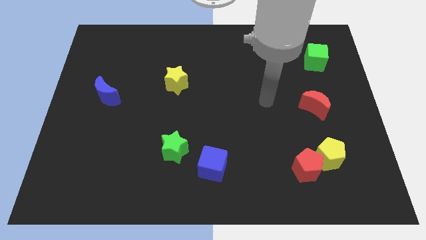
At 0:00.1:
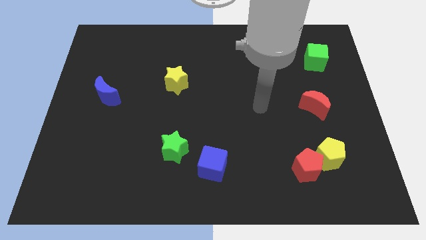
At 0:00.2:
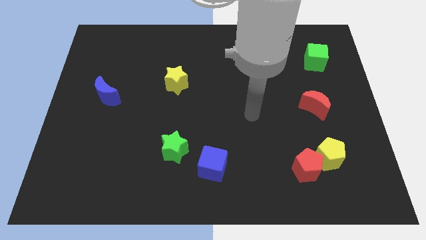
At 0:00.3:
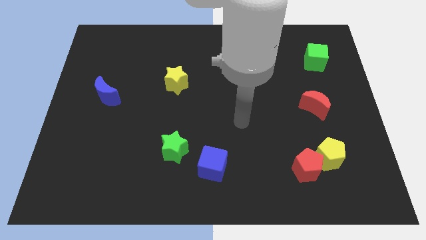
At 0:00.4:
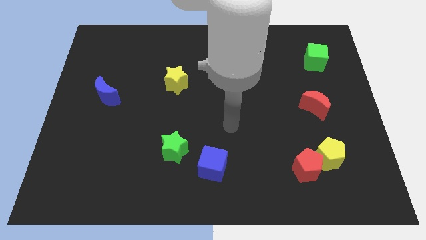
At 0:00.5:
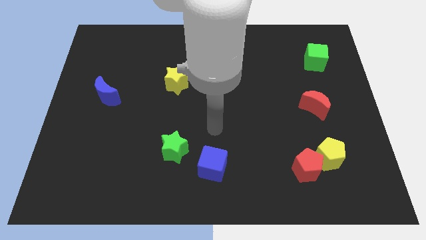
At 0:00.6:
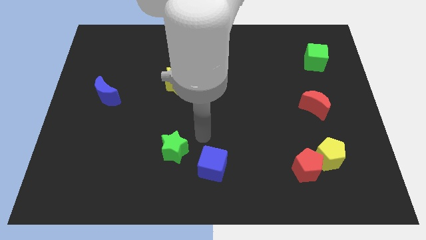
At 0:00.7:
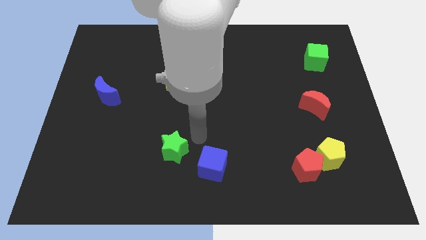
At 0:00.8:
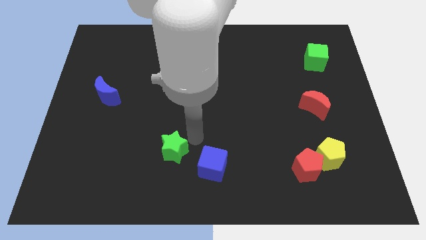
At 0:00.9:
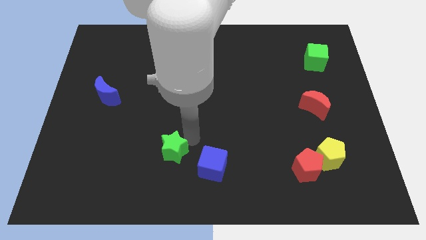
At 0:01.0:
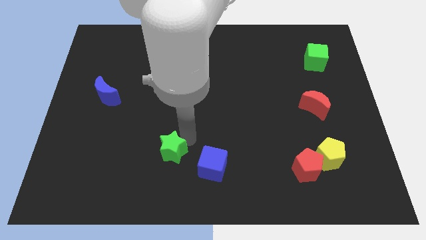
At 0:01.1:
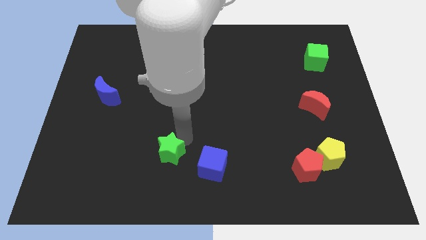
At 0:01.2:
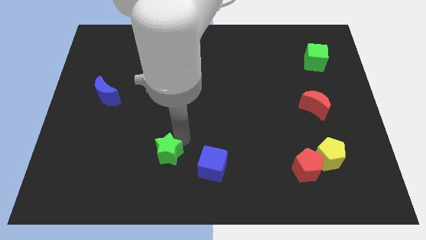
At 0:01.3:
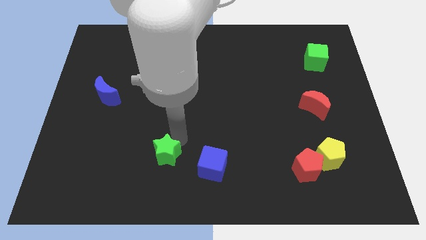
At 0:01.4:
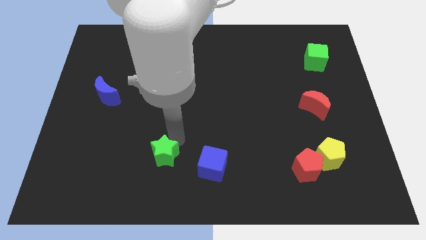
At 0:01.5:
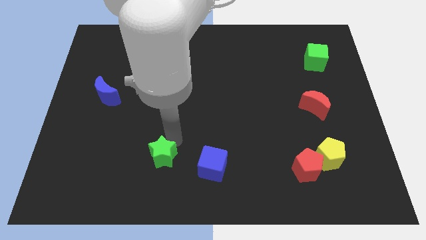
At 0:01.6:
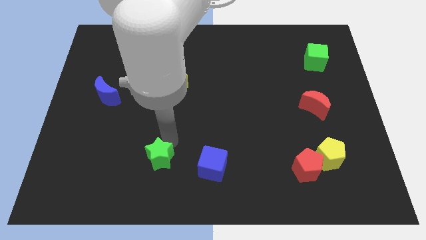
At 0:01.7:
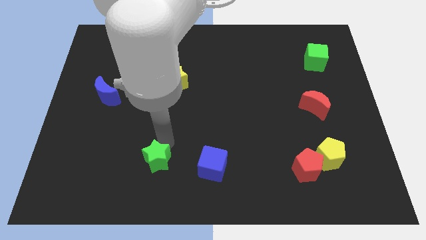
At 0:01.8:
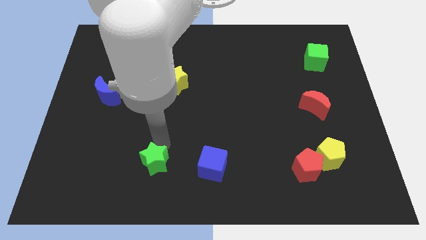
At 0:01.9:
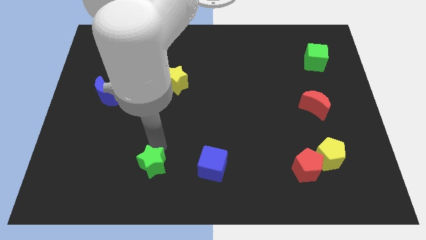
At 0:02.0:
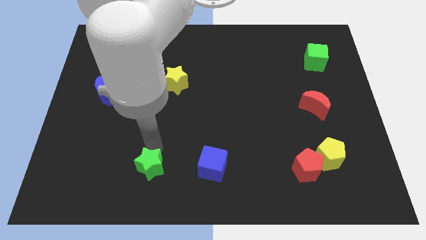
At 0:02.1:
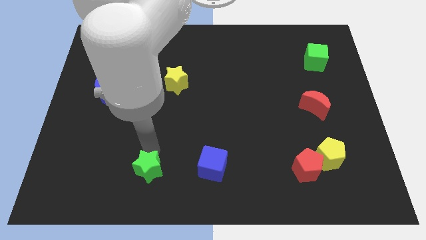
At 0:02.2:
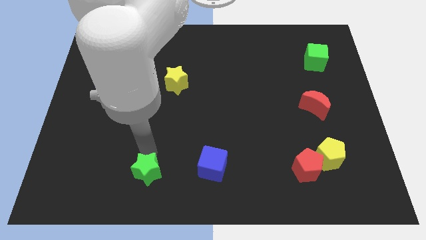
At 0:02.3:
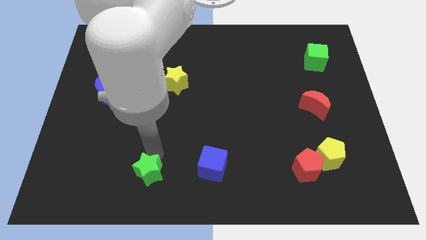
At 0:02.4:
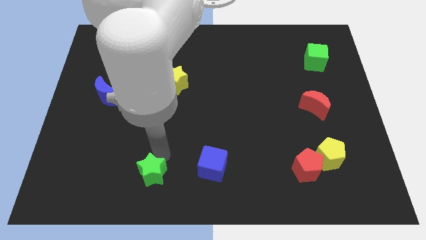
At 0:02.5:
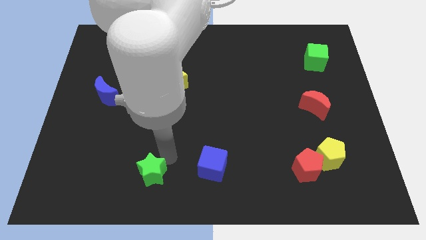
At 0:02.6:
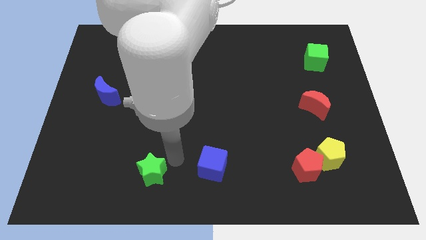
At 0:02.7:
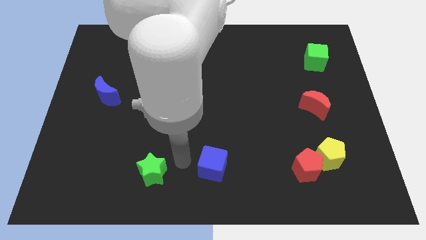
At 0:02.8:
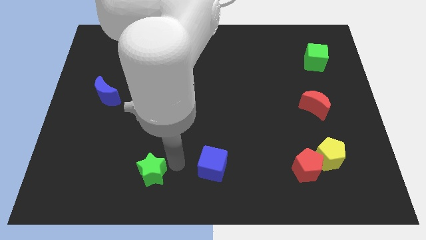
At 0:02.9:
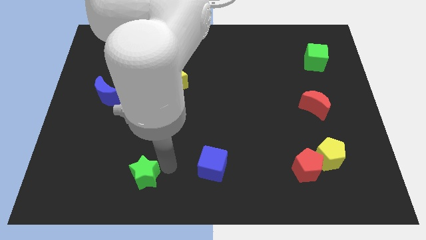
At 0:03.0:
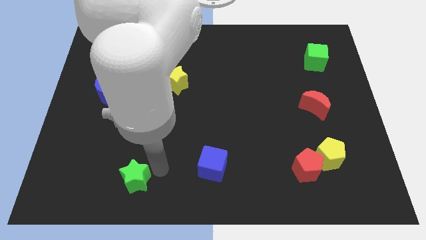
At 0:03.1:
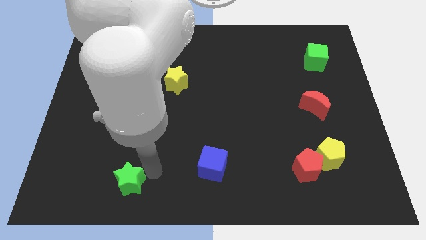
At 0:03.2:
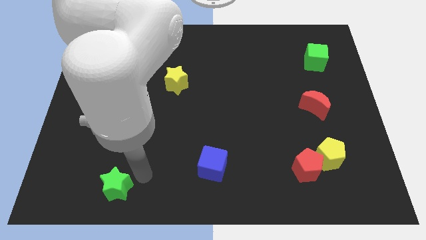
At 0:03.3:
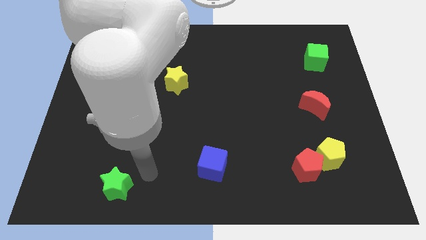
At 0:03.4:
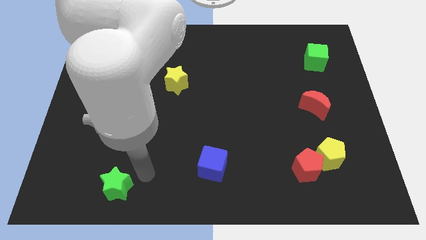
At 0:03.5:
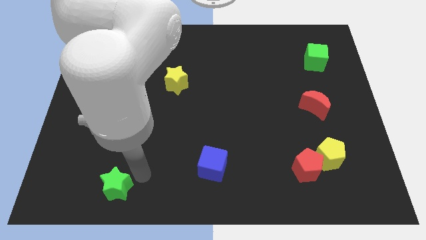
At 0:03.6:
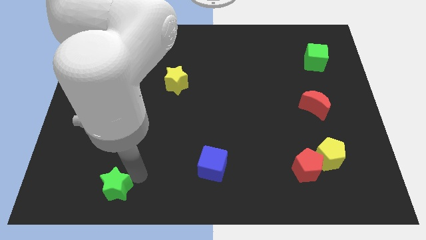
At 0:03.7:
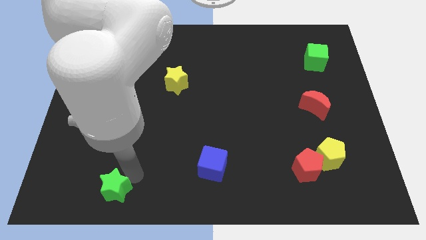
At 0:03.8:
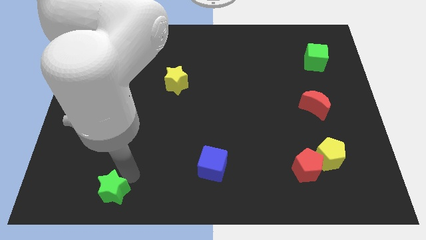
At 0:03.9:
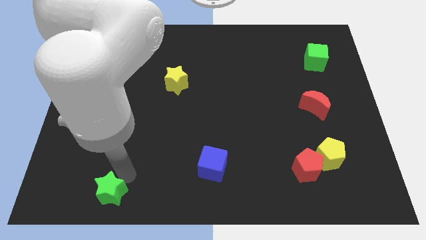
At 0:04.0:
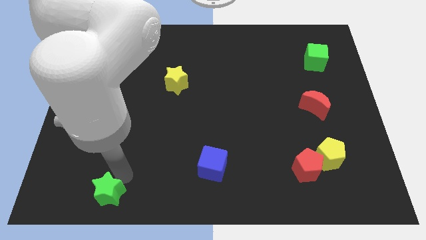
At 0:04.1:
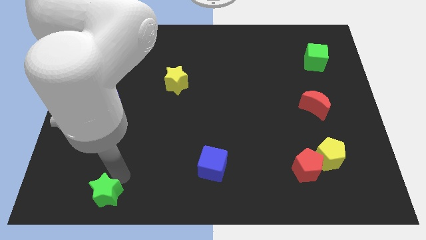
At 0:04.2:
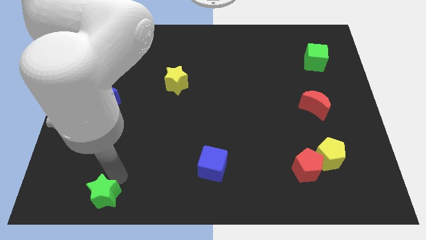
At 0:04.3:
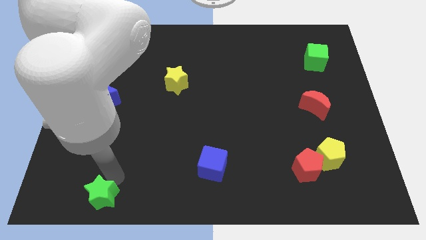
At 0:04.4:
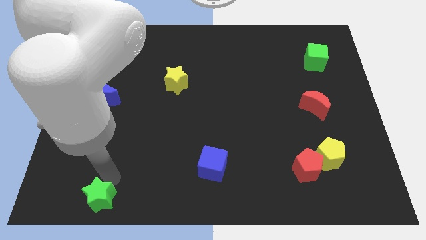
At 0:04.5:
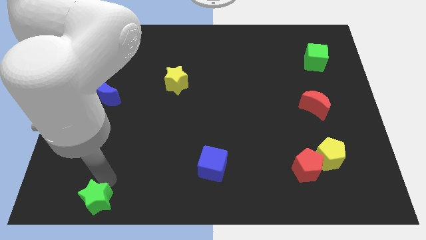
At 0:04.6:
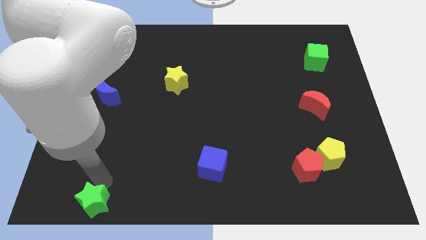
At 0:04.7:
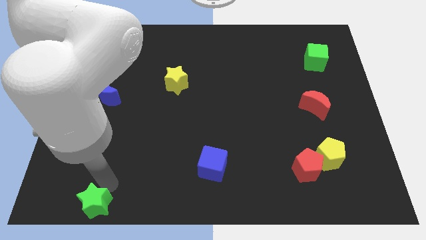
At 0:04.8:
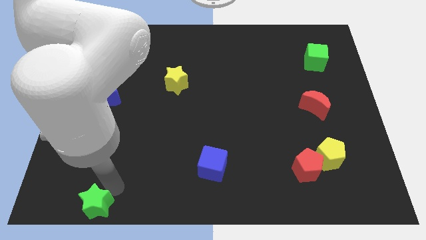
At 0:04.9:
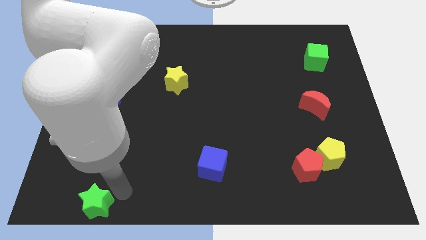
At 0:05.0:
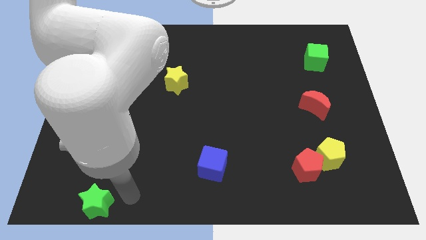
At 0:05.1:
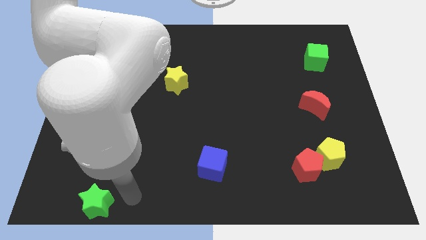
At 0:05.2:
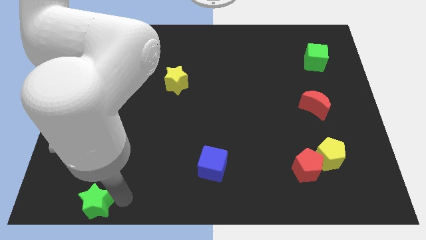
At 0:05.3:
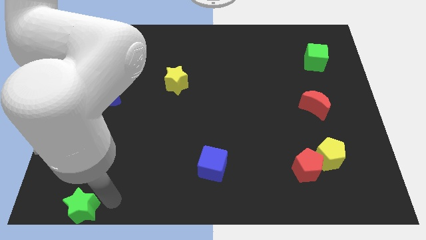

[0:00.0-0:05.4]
move the green star to the bottom left

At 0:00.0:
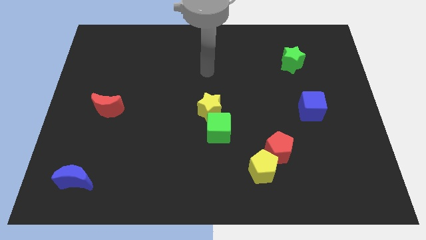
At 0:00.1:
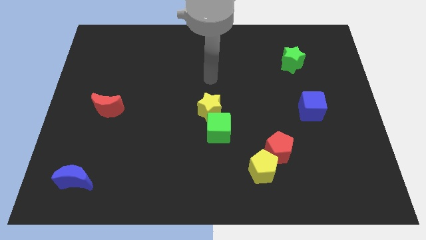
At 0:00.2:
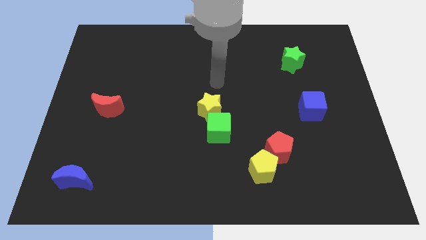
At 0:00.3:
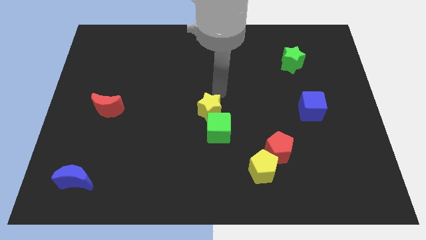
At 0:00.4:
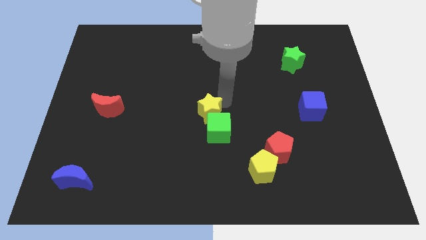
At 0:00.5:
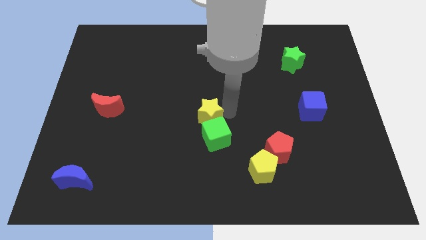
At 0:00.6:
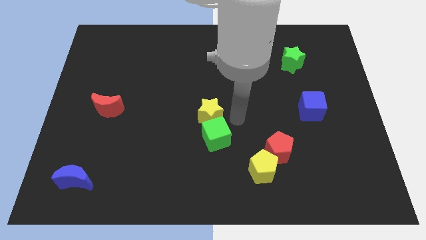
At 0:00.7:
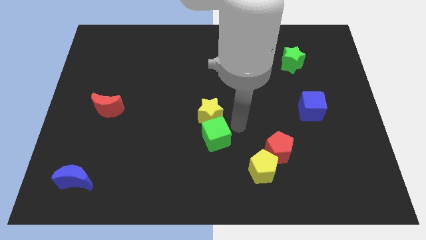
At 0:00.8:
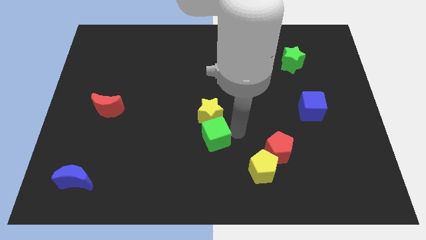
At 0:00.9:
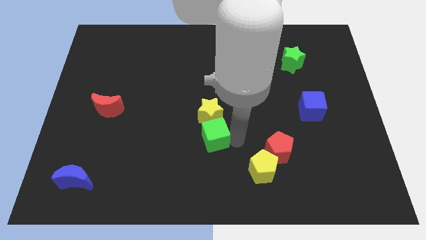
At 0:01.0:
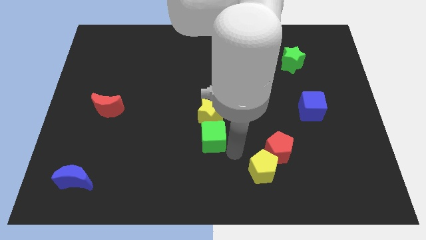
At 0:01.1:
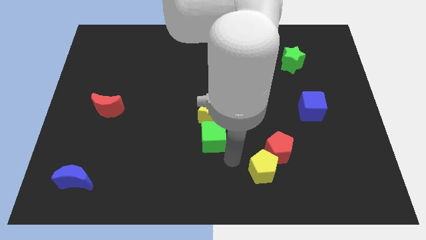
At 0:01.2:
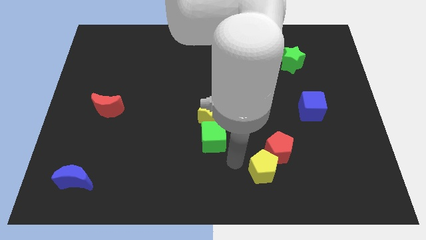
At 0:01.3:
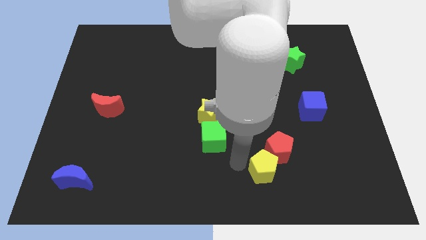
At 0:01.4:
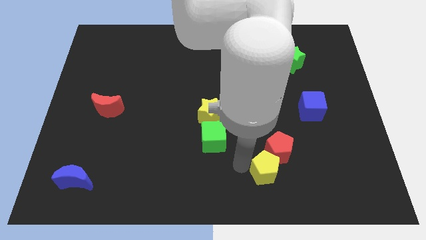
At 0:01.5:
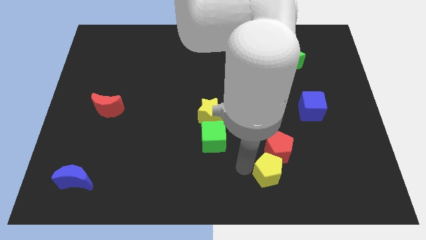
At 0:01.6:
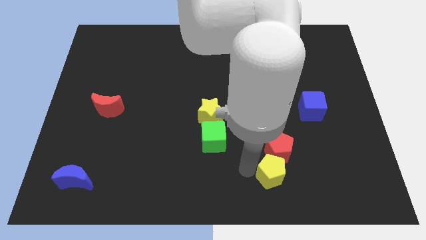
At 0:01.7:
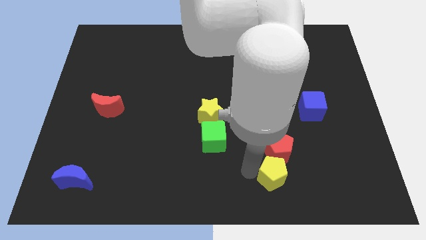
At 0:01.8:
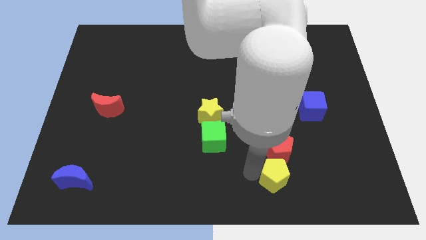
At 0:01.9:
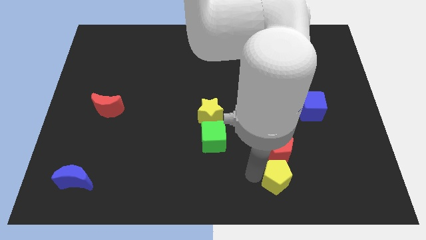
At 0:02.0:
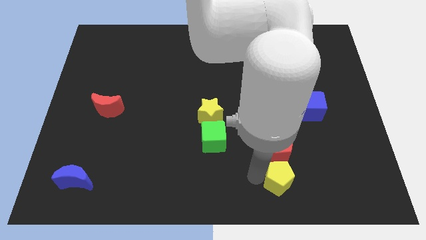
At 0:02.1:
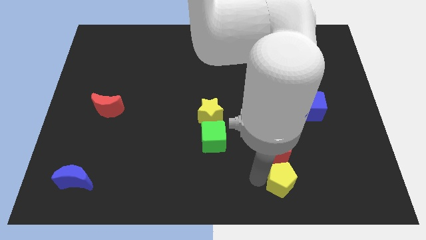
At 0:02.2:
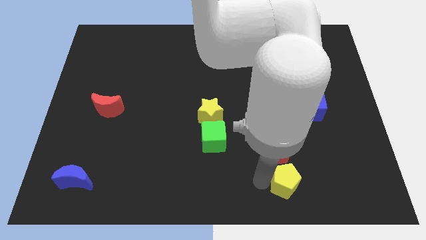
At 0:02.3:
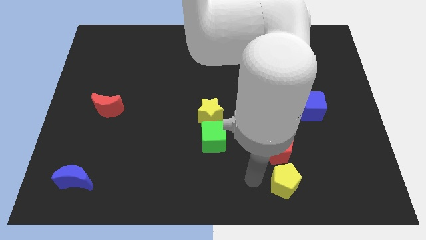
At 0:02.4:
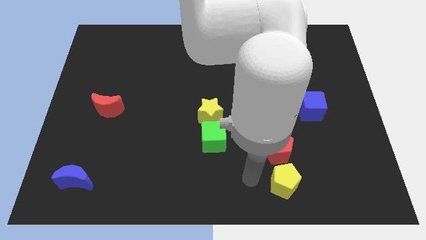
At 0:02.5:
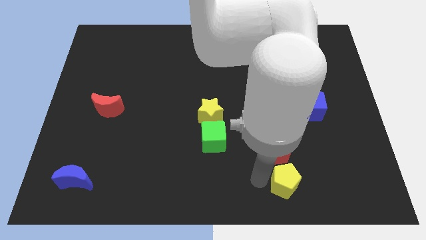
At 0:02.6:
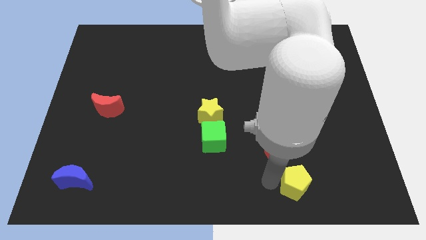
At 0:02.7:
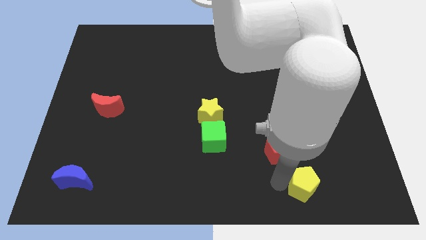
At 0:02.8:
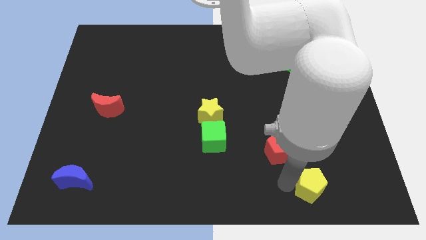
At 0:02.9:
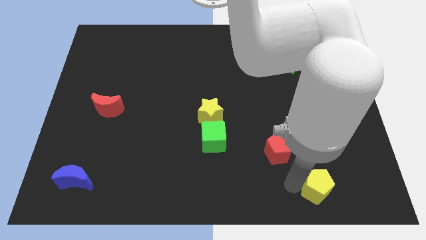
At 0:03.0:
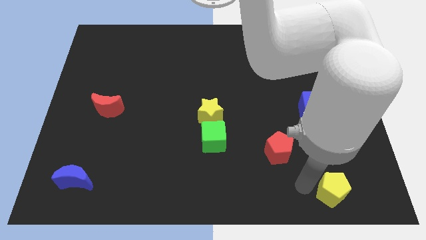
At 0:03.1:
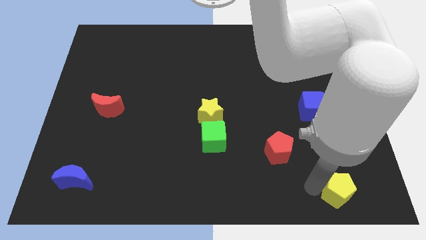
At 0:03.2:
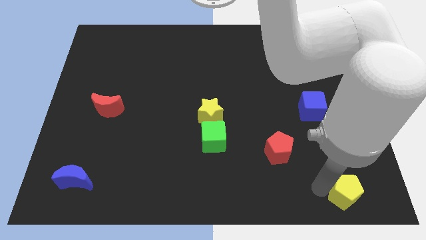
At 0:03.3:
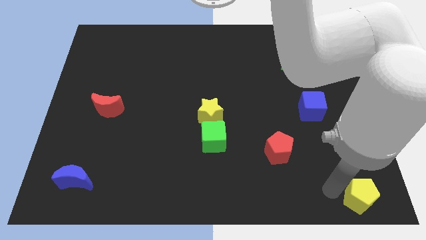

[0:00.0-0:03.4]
push the yellow pentagon to the bottom right corner
